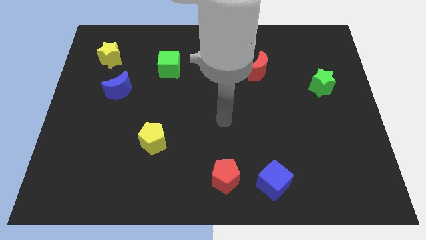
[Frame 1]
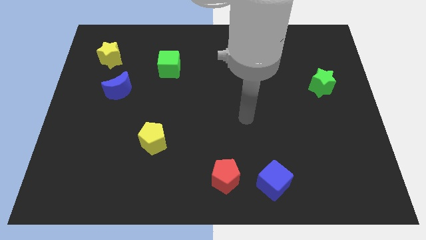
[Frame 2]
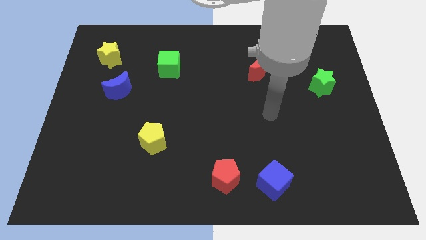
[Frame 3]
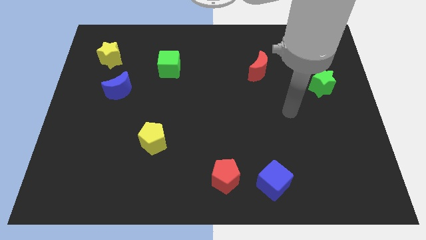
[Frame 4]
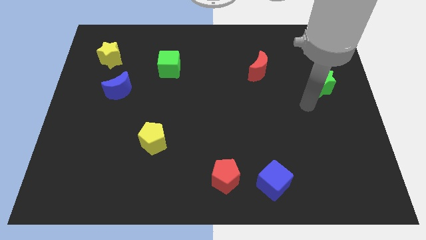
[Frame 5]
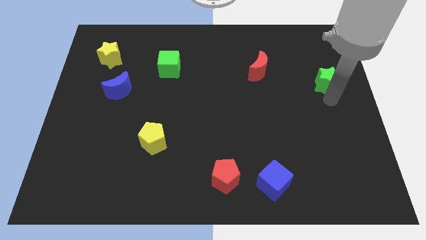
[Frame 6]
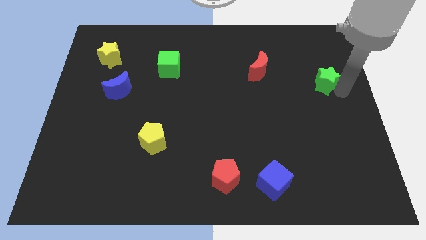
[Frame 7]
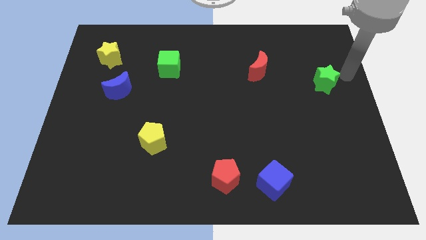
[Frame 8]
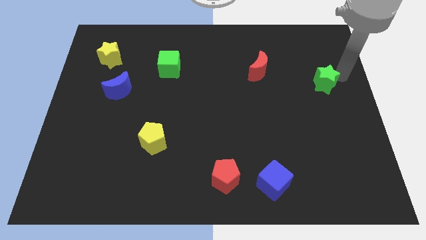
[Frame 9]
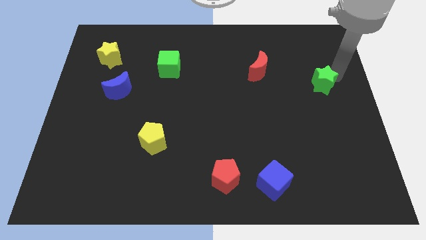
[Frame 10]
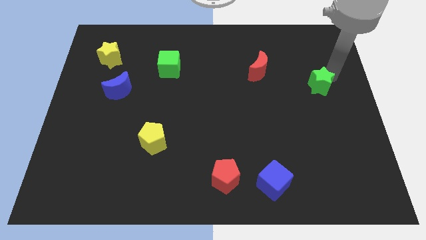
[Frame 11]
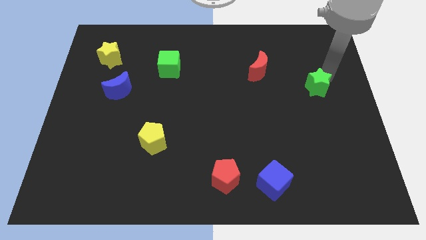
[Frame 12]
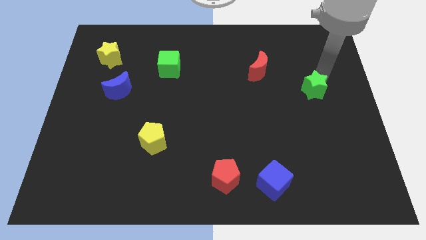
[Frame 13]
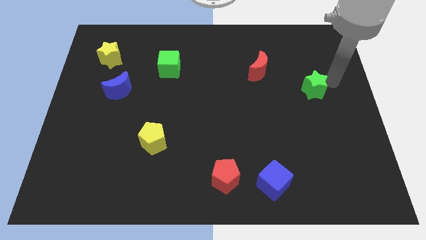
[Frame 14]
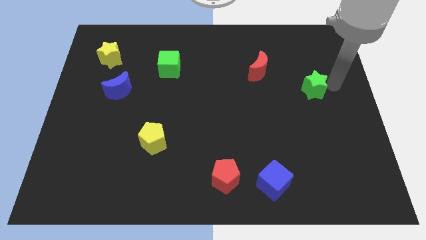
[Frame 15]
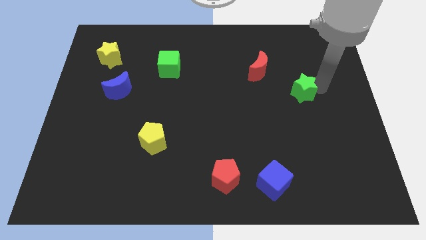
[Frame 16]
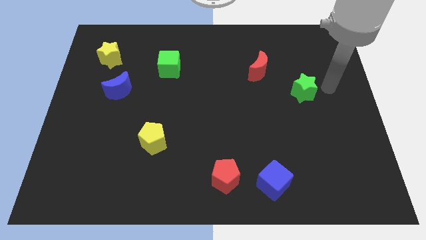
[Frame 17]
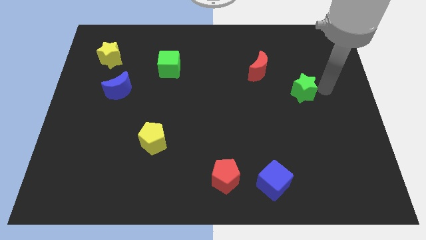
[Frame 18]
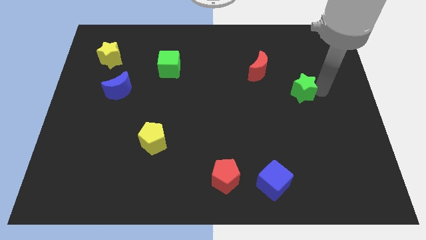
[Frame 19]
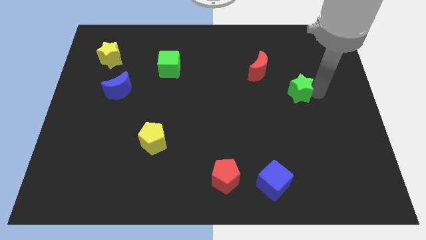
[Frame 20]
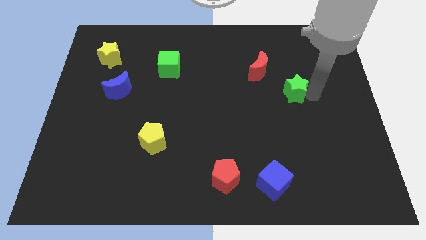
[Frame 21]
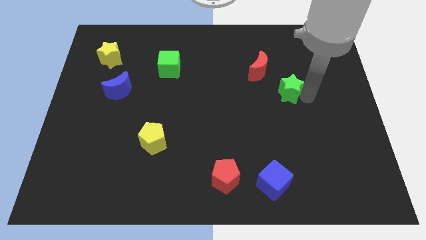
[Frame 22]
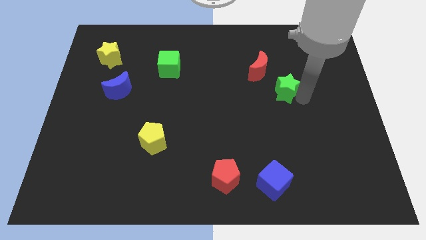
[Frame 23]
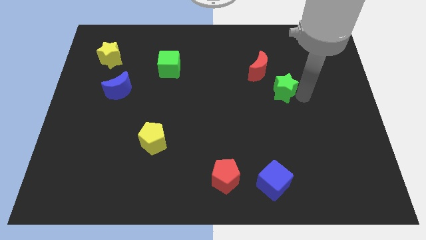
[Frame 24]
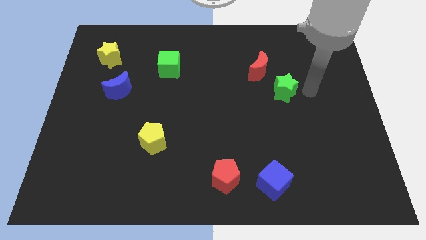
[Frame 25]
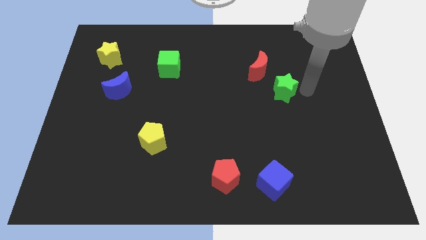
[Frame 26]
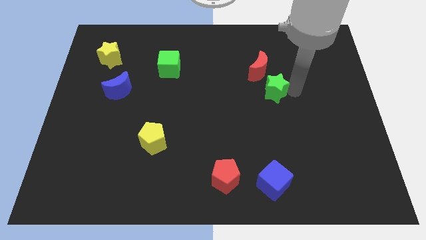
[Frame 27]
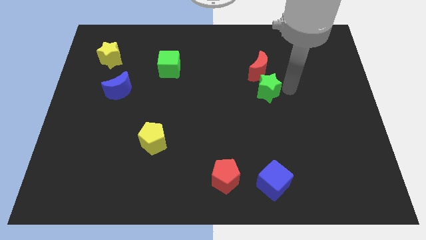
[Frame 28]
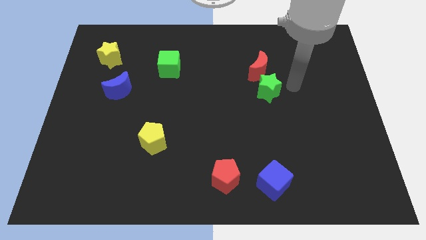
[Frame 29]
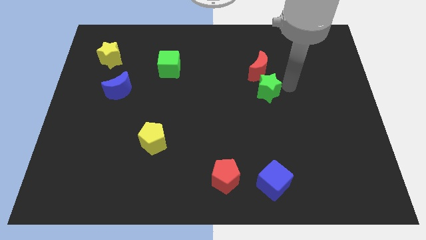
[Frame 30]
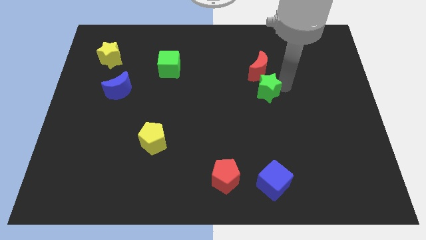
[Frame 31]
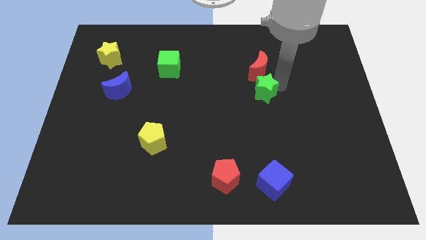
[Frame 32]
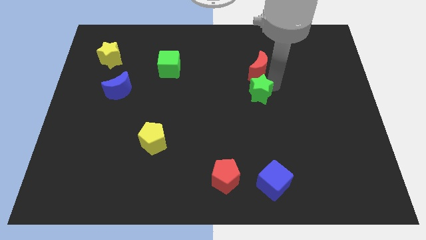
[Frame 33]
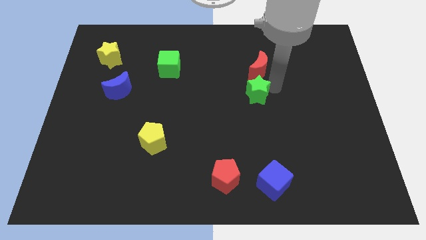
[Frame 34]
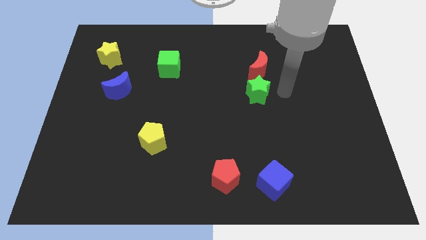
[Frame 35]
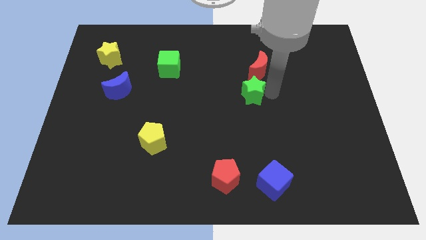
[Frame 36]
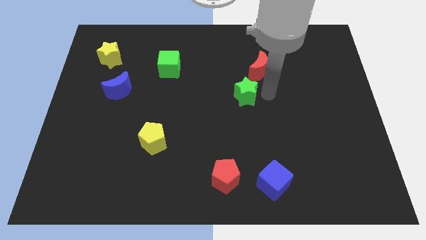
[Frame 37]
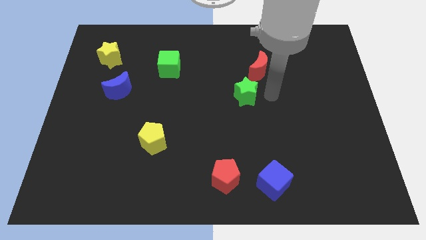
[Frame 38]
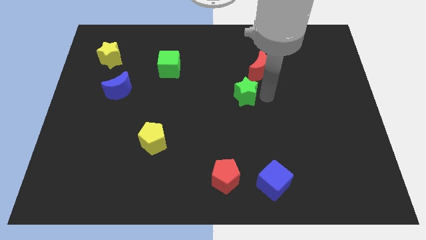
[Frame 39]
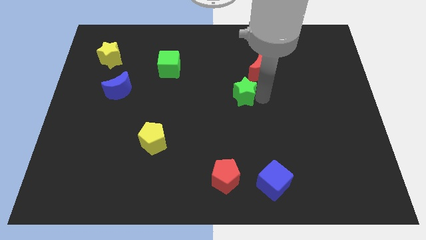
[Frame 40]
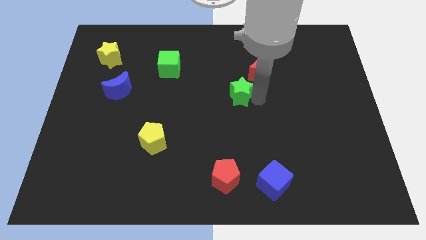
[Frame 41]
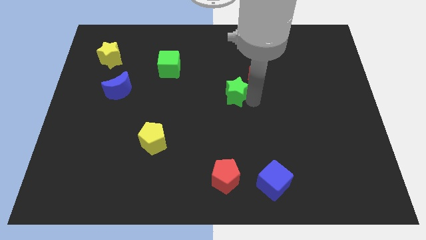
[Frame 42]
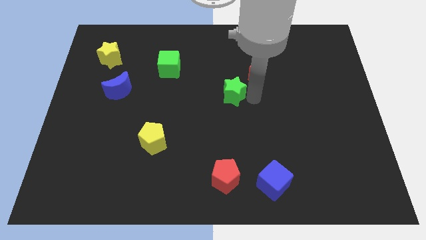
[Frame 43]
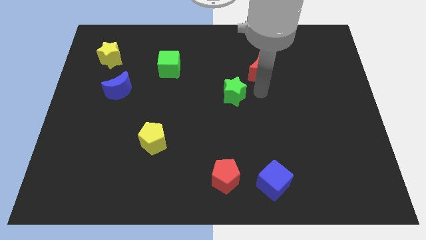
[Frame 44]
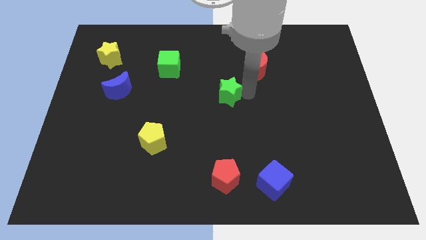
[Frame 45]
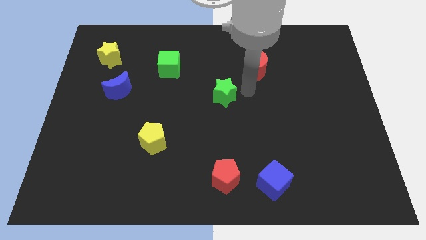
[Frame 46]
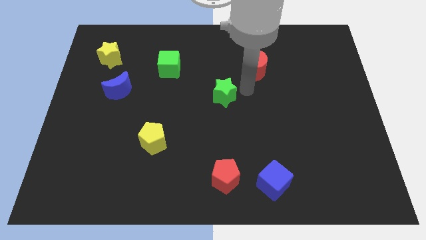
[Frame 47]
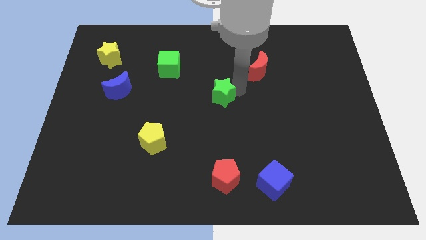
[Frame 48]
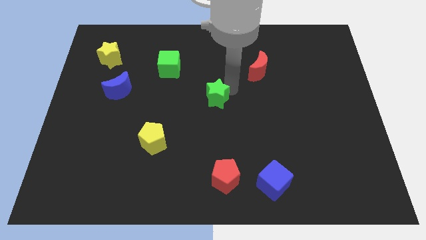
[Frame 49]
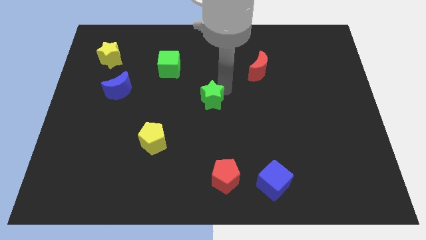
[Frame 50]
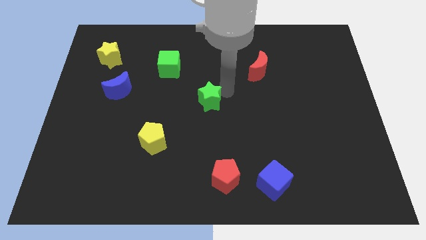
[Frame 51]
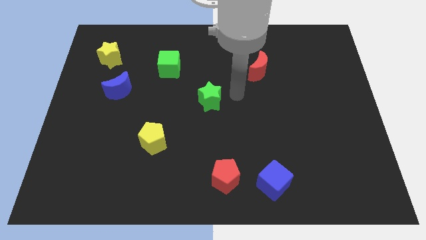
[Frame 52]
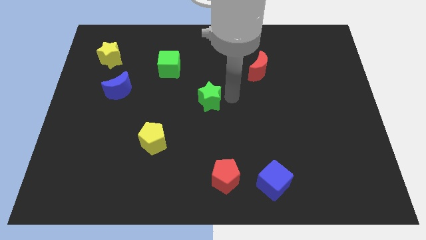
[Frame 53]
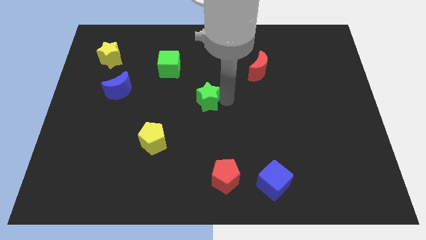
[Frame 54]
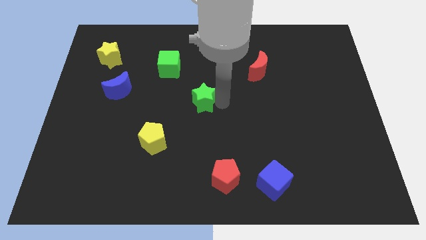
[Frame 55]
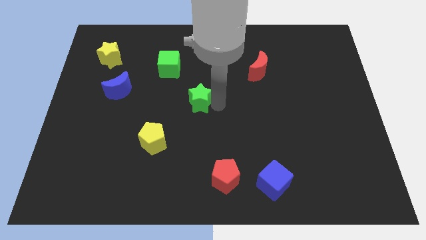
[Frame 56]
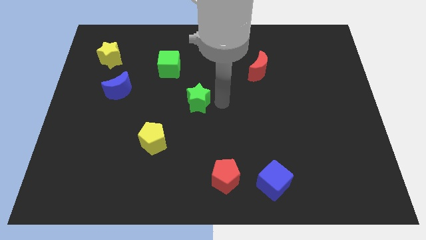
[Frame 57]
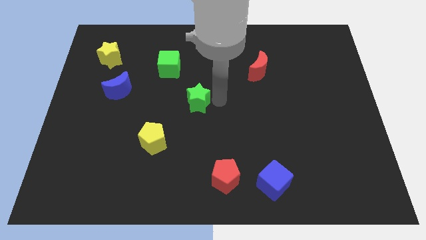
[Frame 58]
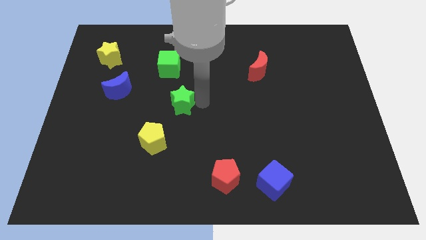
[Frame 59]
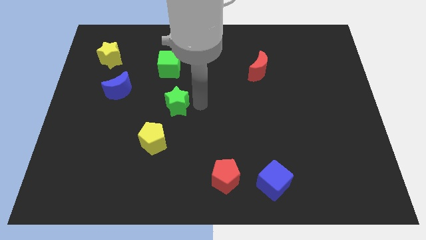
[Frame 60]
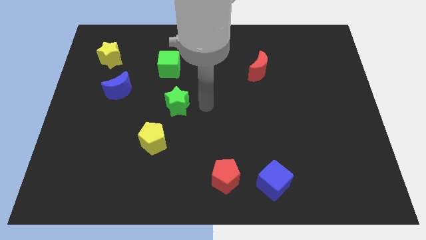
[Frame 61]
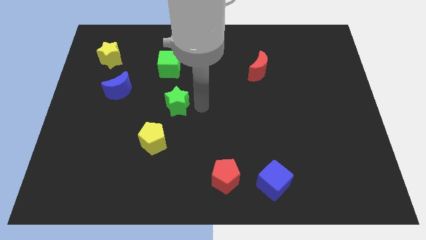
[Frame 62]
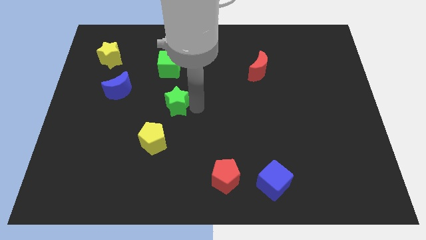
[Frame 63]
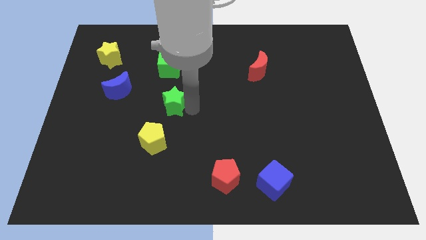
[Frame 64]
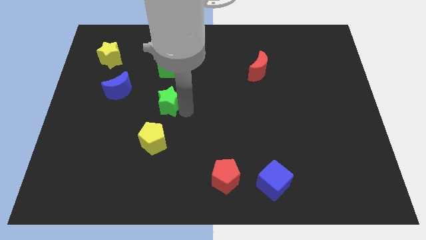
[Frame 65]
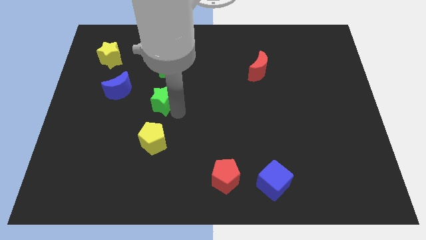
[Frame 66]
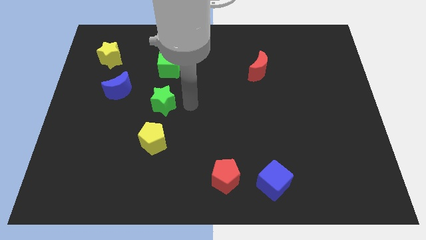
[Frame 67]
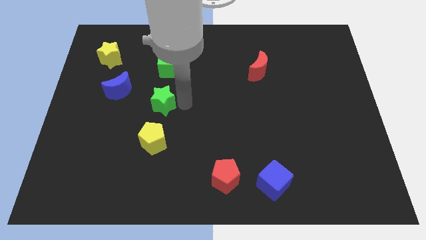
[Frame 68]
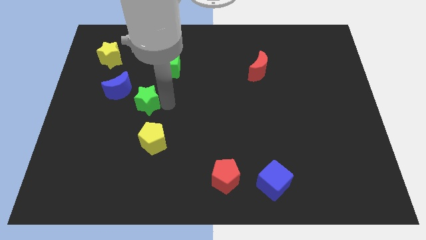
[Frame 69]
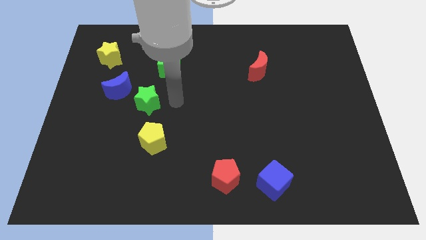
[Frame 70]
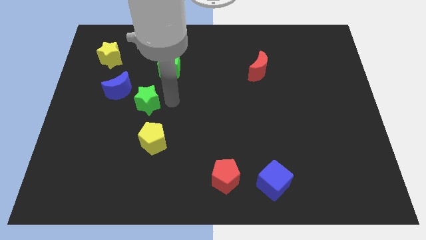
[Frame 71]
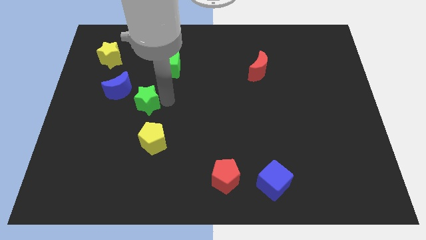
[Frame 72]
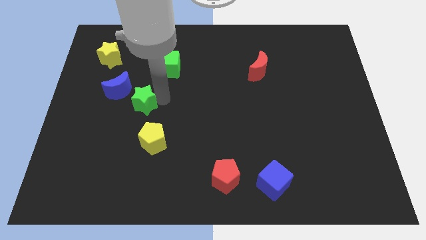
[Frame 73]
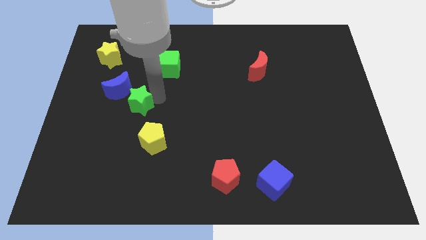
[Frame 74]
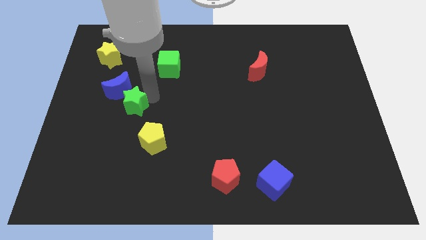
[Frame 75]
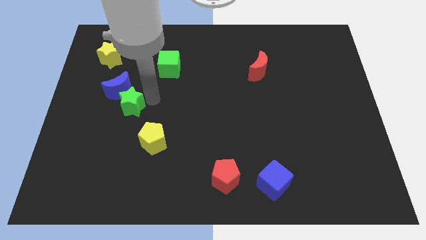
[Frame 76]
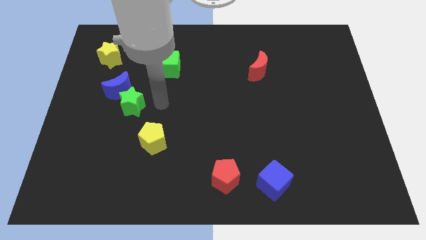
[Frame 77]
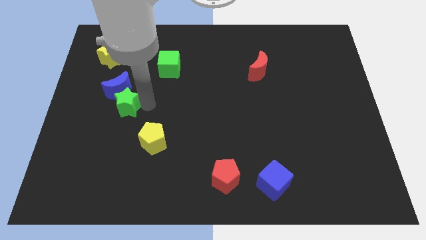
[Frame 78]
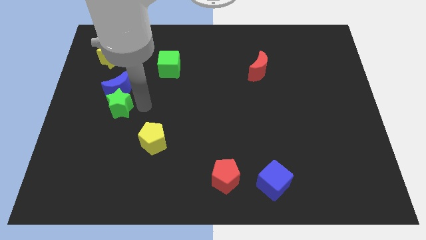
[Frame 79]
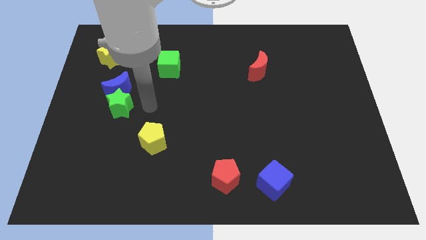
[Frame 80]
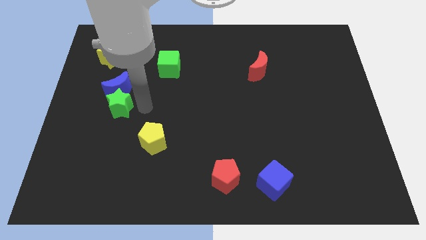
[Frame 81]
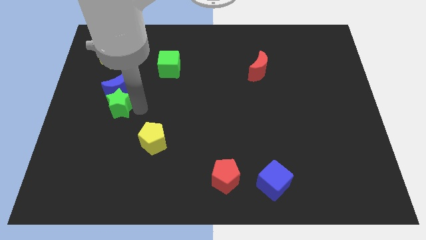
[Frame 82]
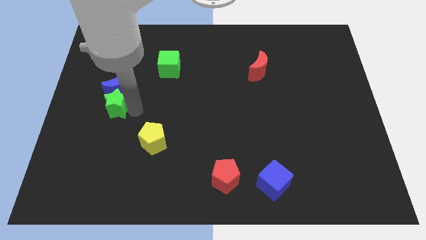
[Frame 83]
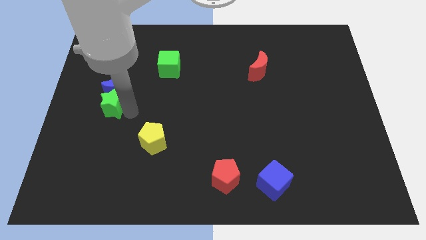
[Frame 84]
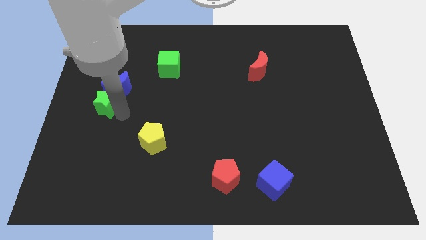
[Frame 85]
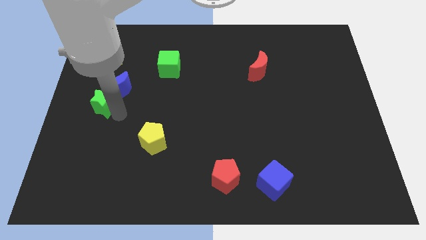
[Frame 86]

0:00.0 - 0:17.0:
push the green star to the left side of the board
